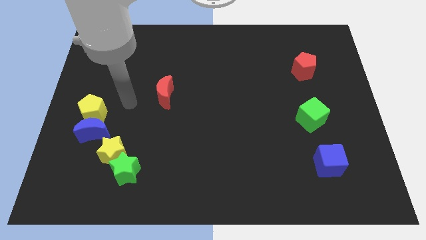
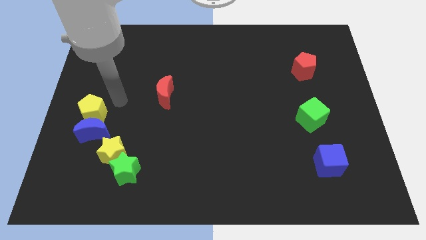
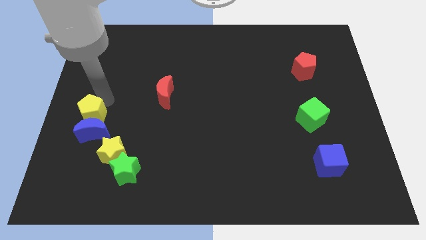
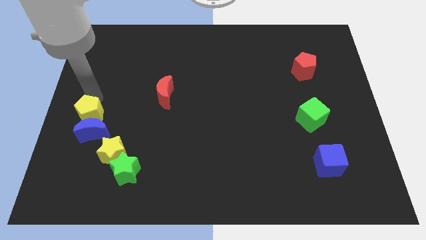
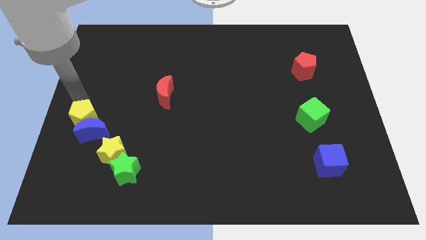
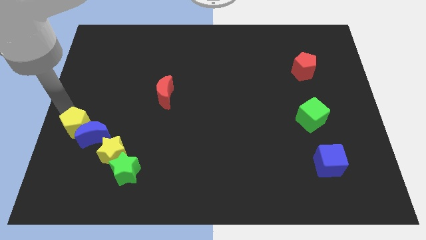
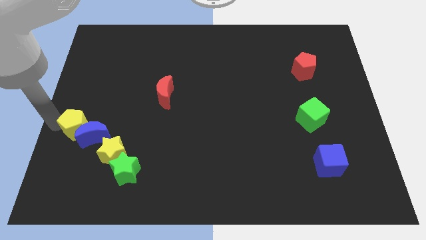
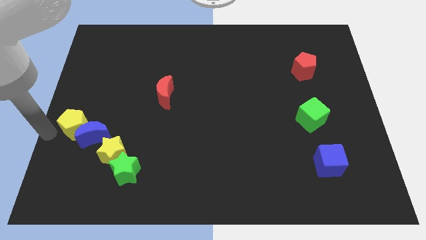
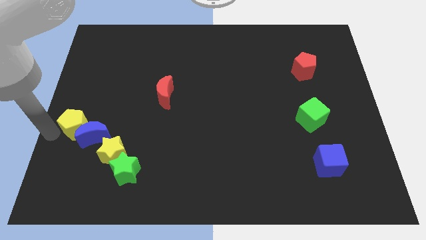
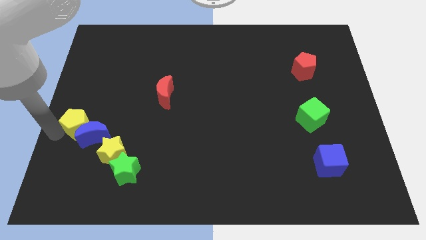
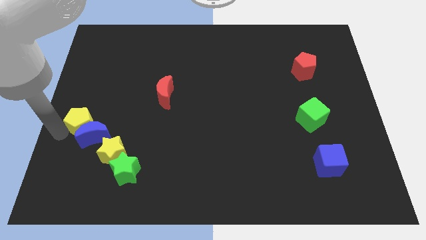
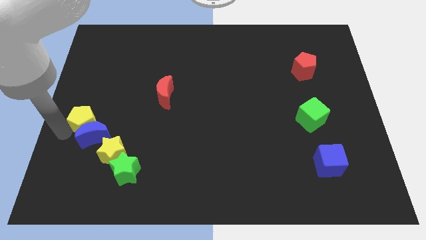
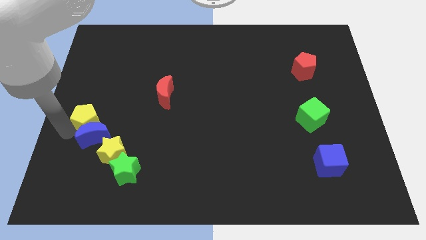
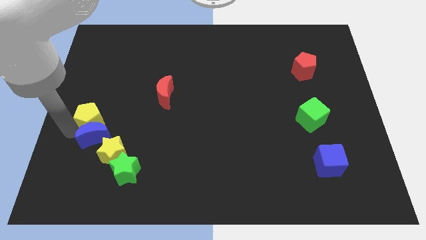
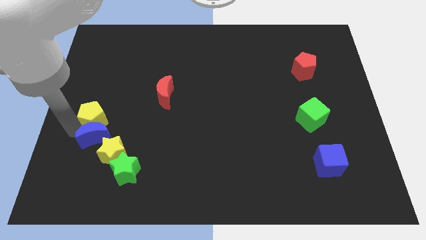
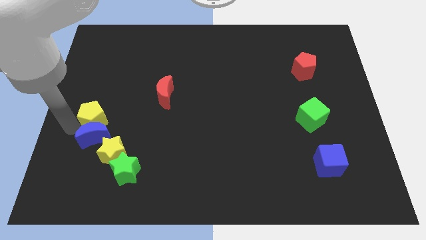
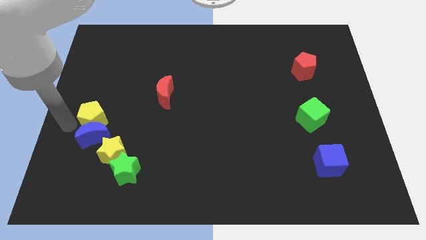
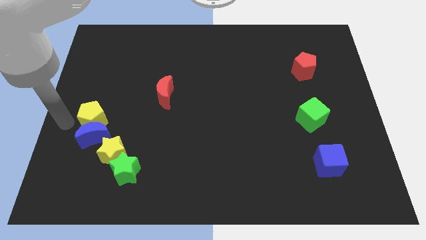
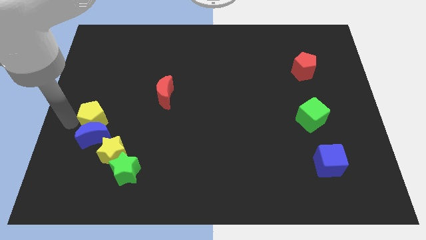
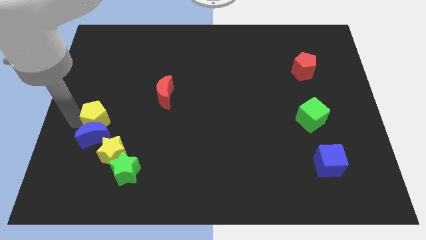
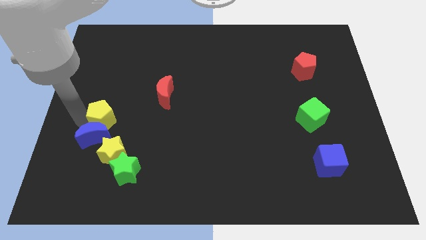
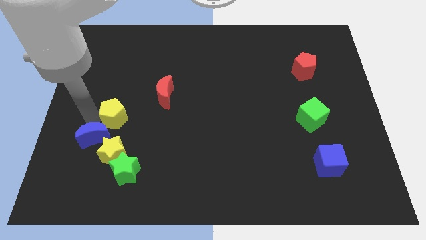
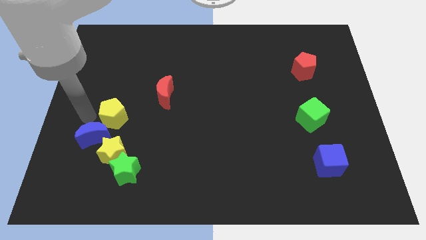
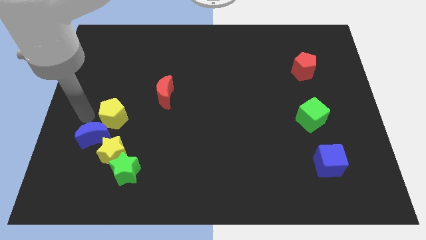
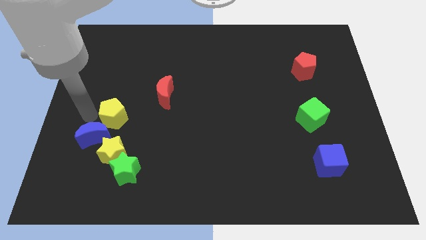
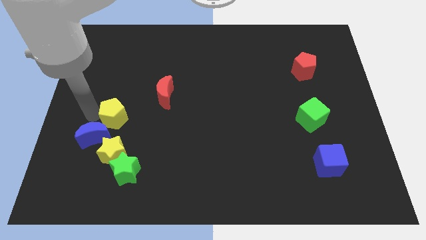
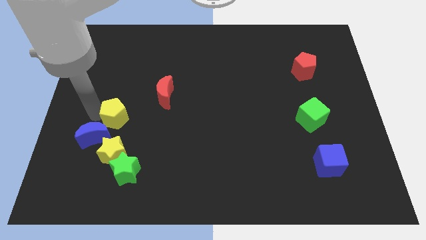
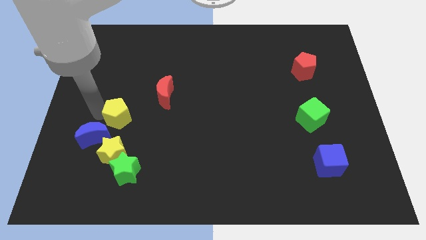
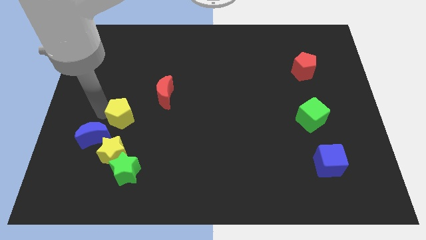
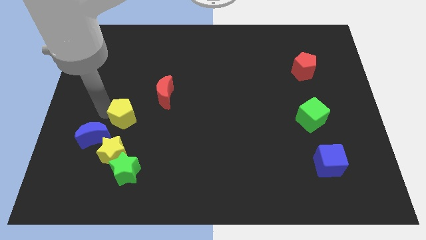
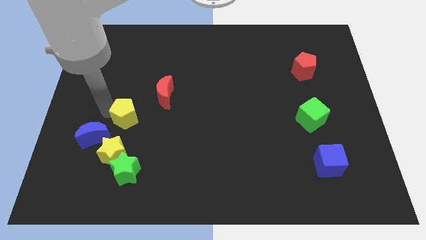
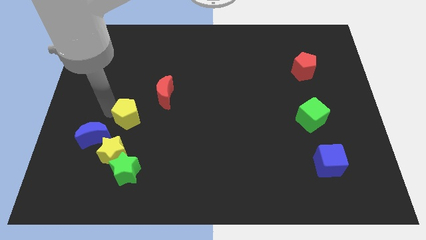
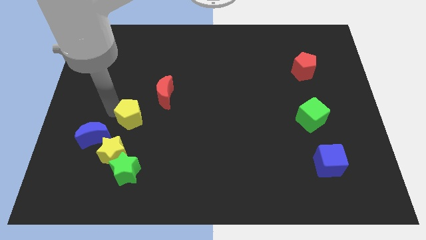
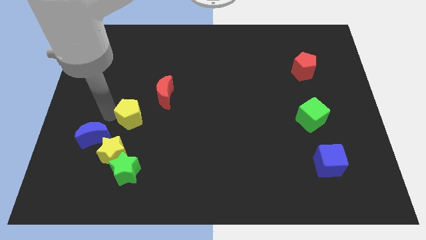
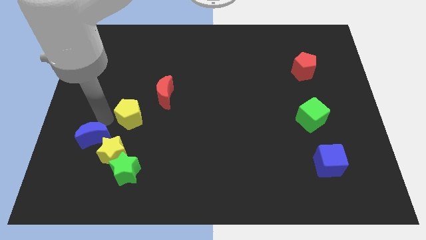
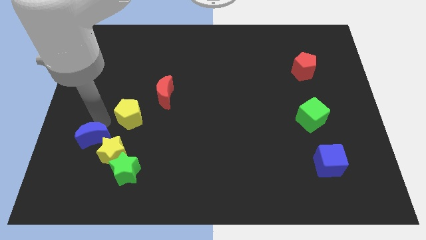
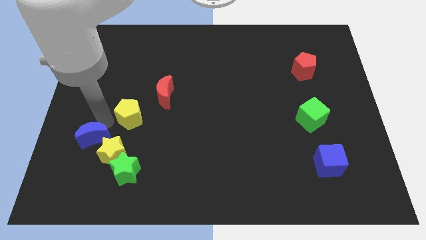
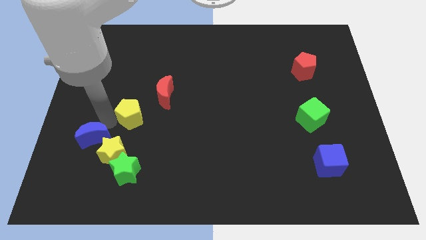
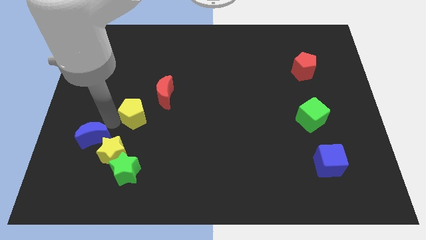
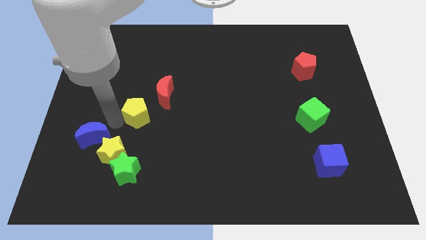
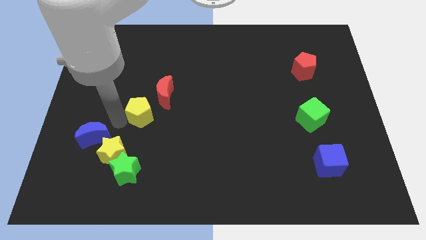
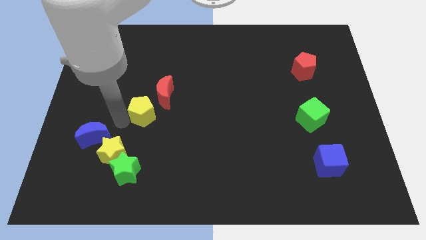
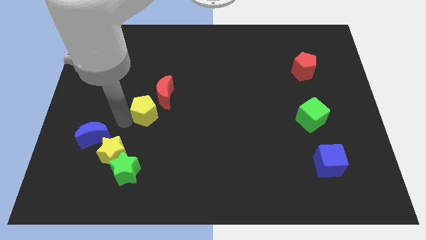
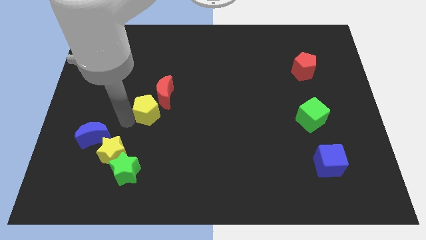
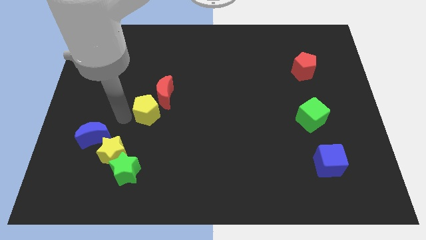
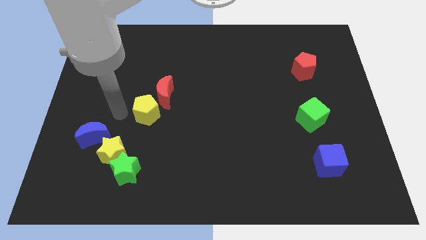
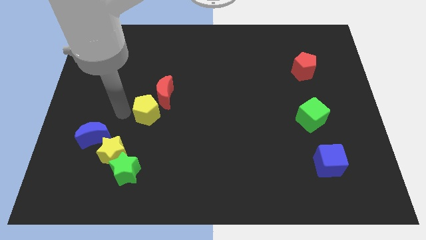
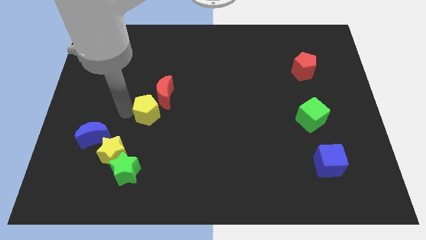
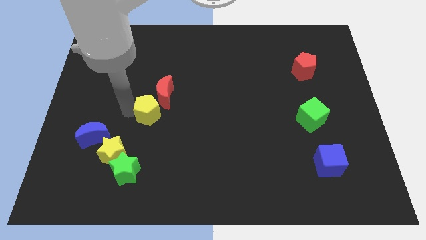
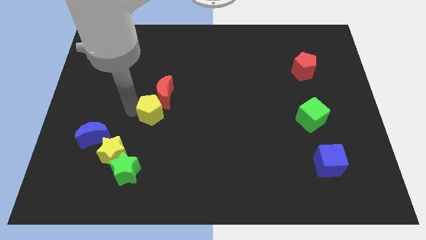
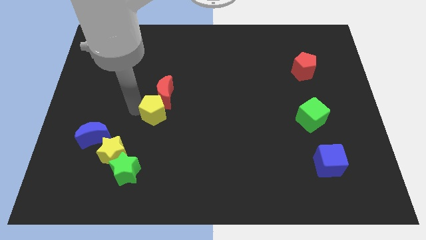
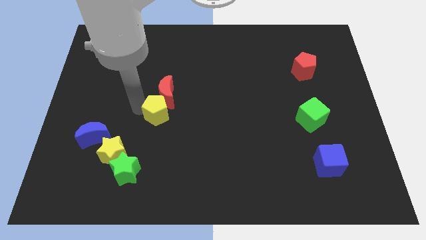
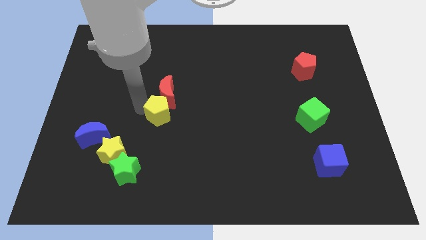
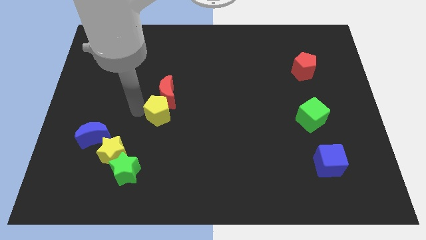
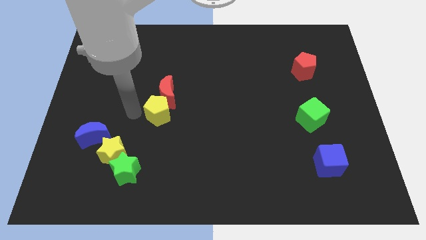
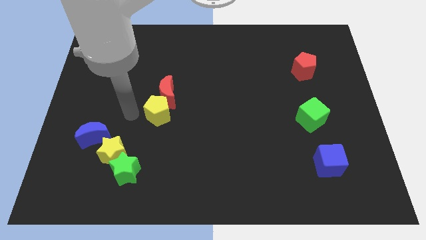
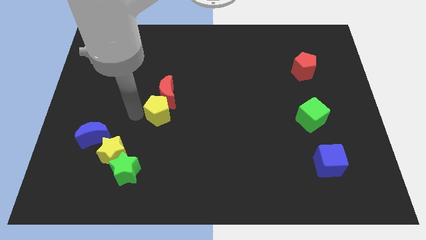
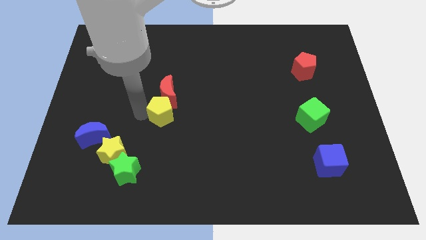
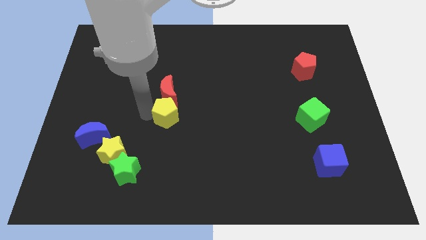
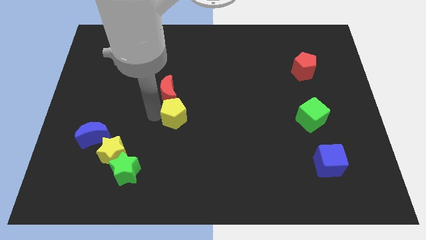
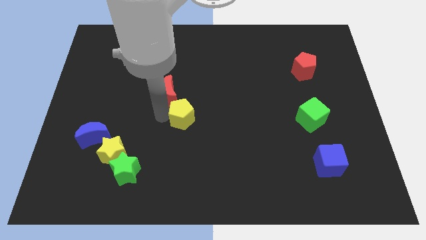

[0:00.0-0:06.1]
slide the yellow pentagon right

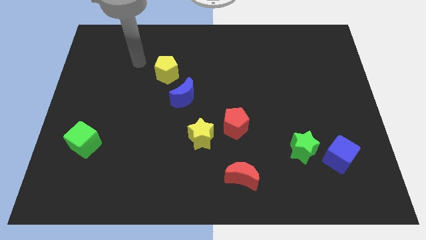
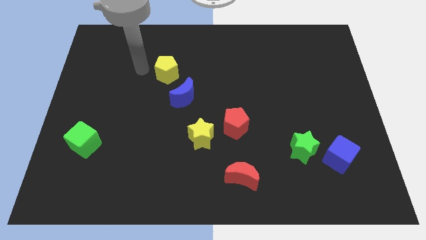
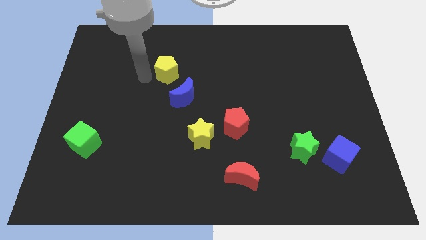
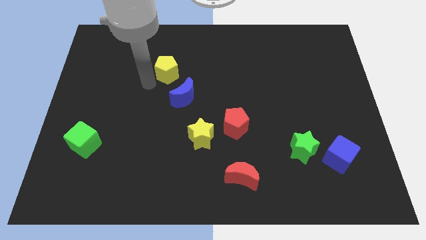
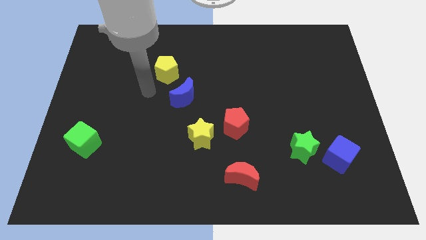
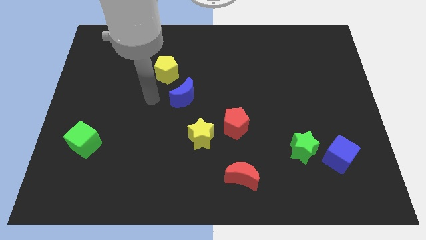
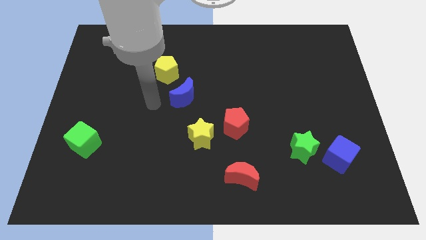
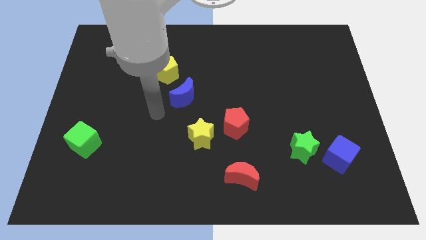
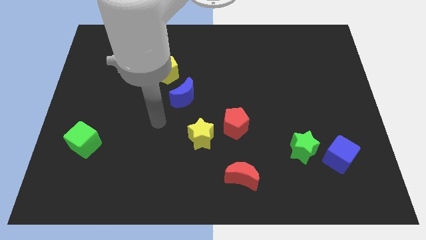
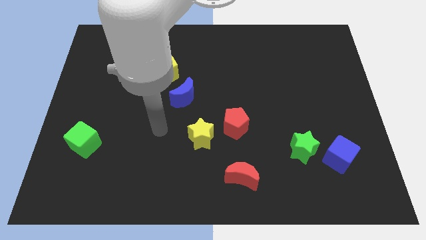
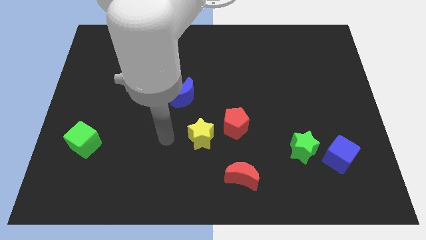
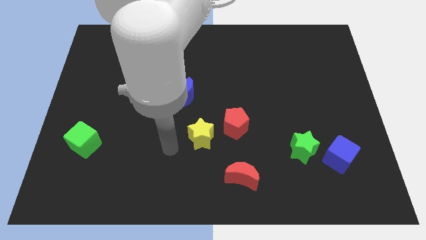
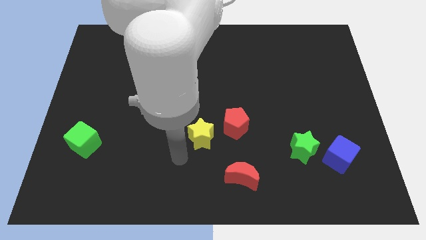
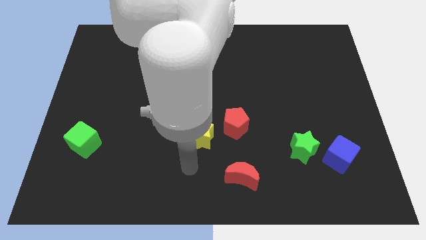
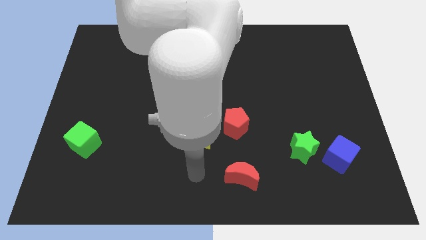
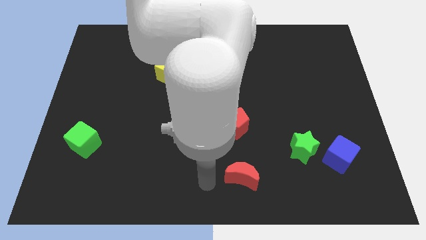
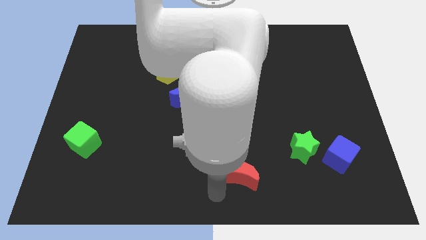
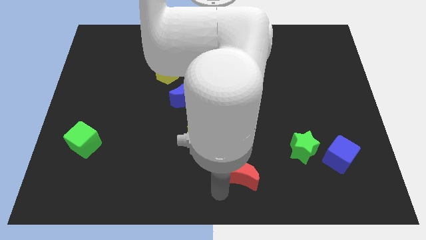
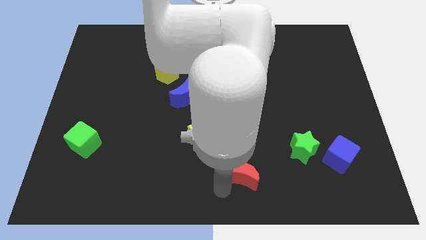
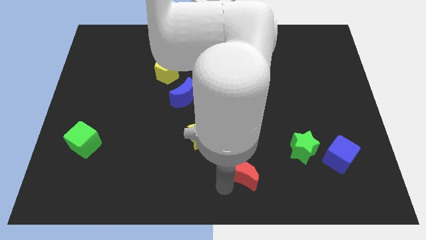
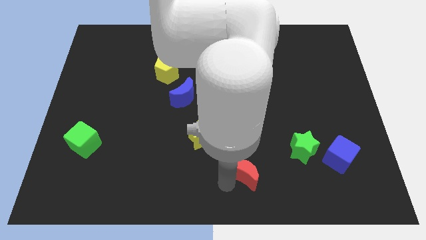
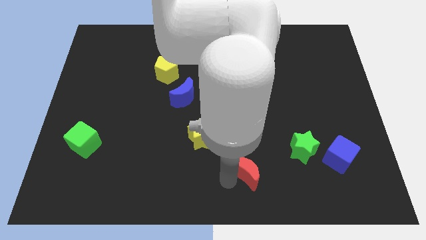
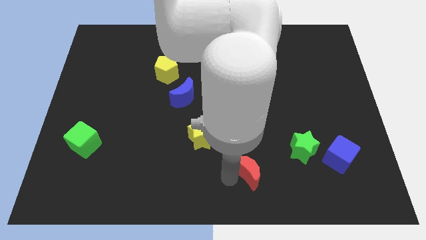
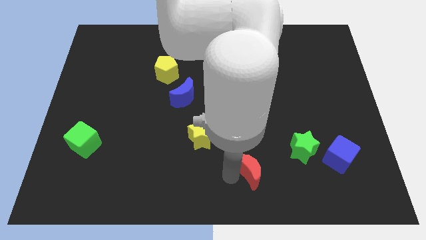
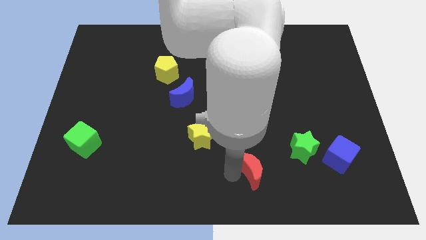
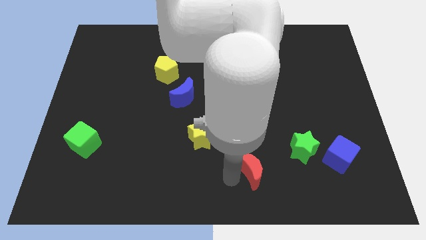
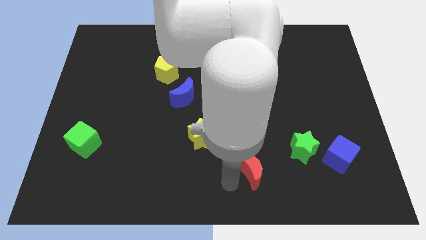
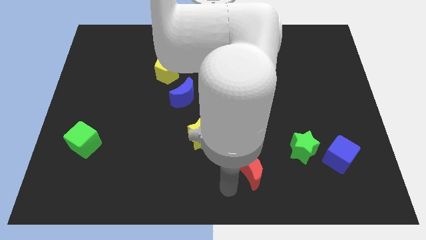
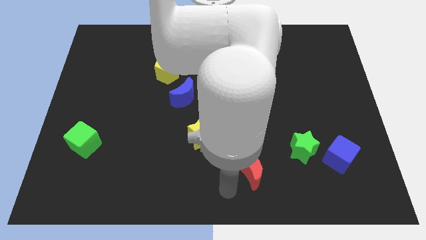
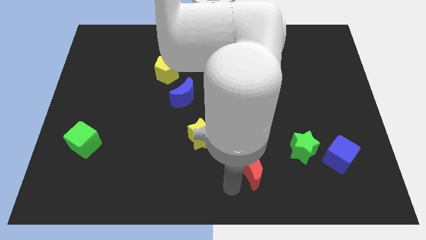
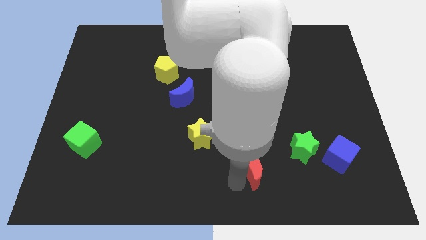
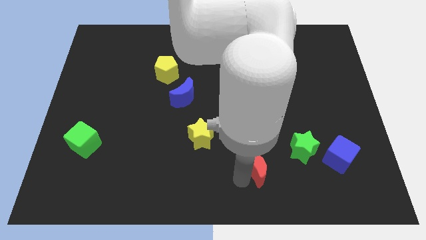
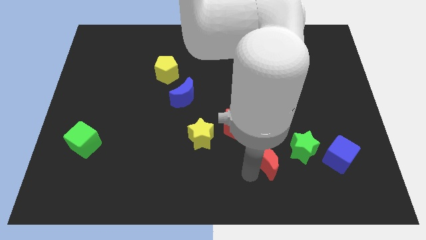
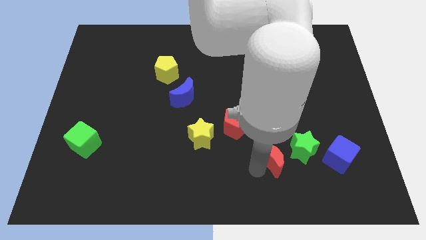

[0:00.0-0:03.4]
slightly move the red moon upwards and to the right diagonally
